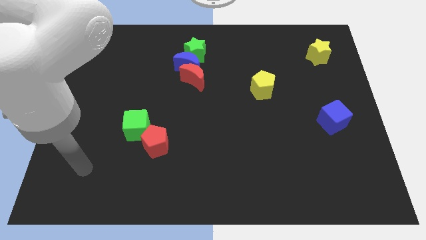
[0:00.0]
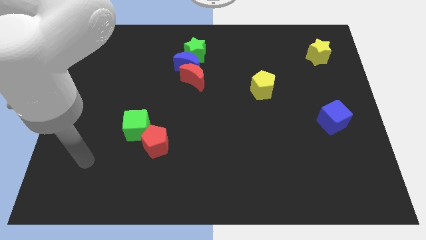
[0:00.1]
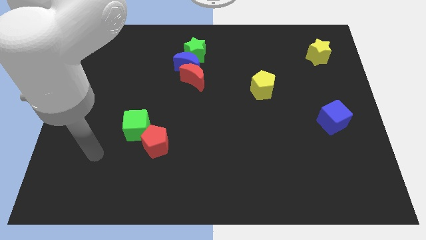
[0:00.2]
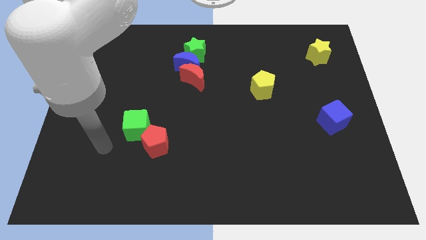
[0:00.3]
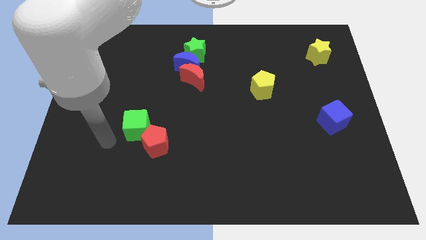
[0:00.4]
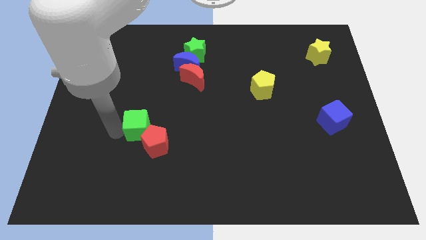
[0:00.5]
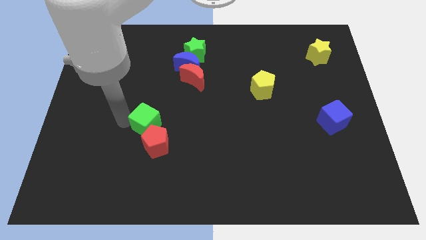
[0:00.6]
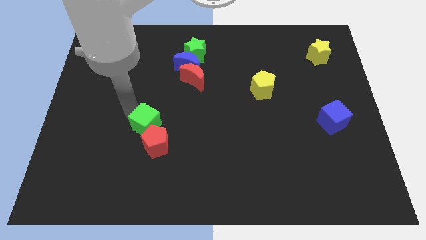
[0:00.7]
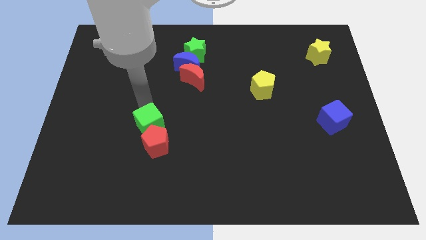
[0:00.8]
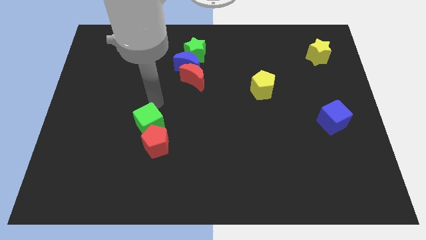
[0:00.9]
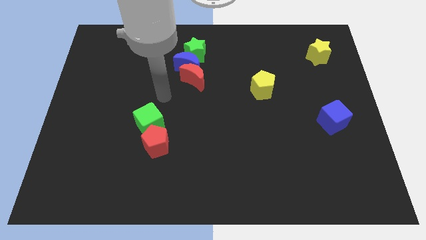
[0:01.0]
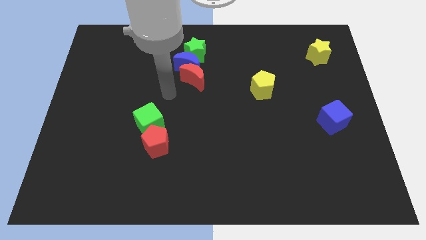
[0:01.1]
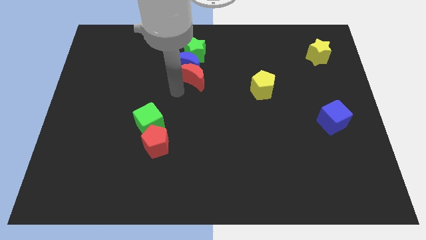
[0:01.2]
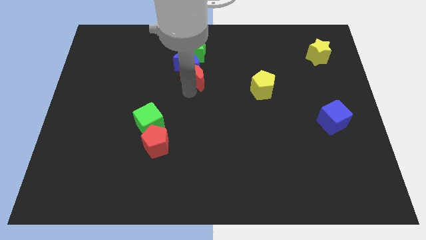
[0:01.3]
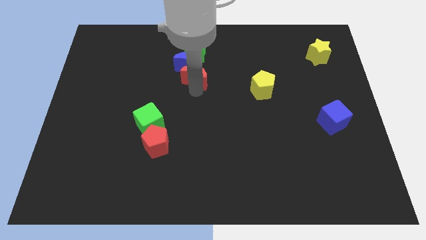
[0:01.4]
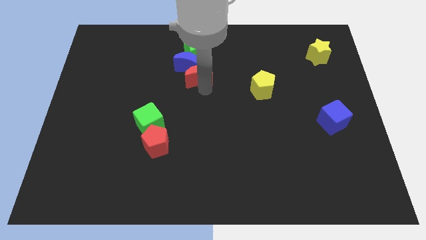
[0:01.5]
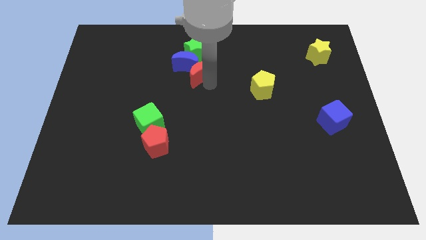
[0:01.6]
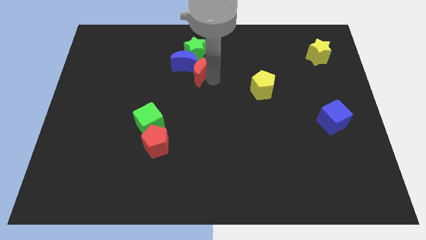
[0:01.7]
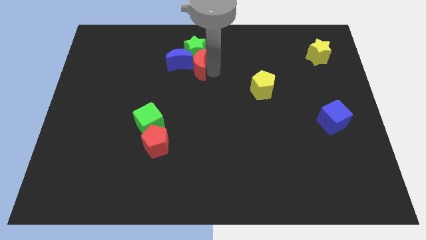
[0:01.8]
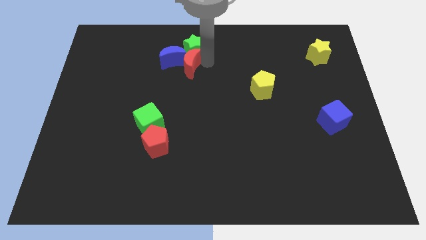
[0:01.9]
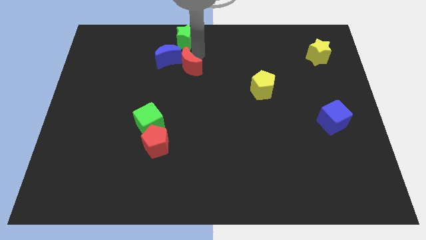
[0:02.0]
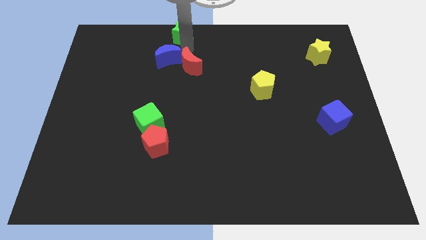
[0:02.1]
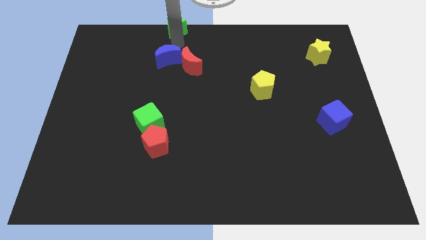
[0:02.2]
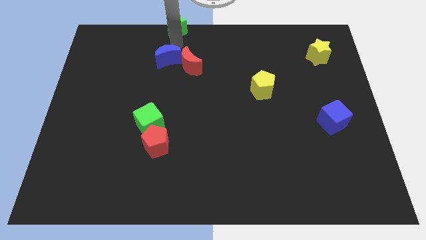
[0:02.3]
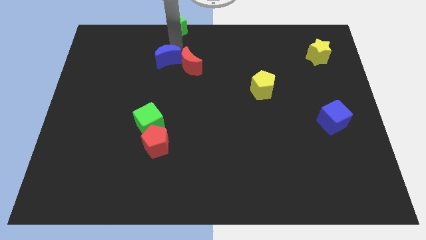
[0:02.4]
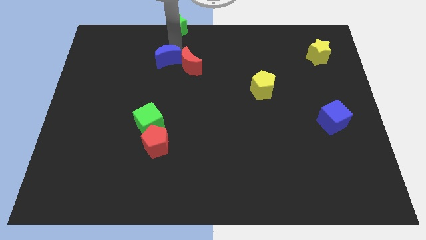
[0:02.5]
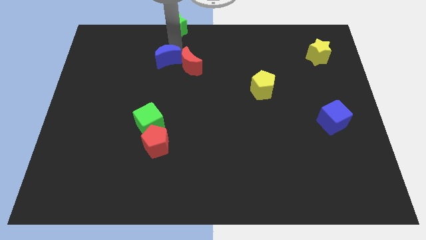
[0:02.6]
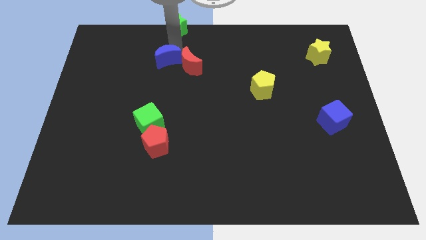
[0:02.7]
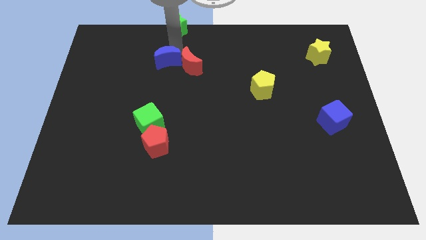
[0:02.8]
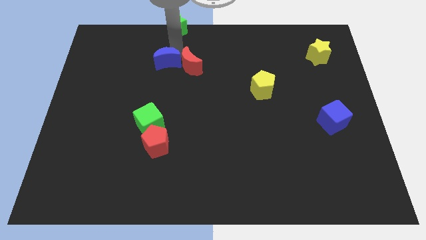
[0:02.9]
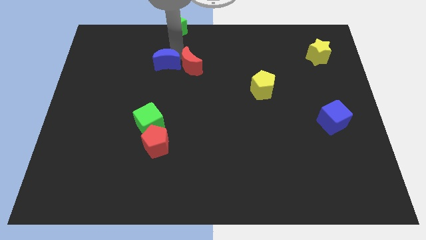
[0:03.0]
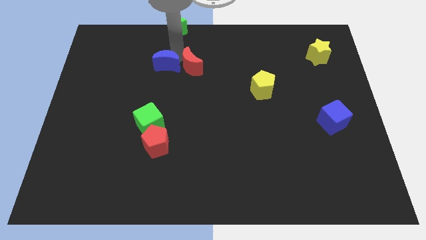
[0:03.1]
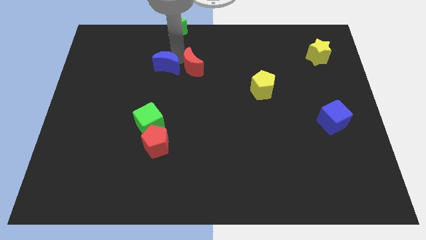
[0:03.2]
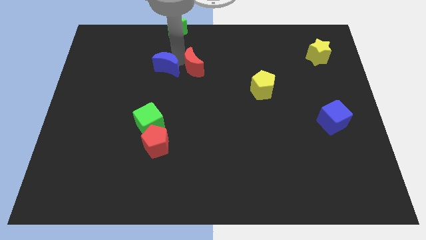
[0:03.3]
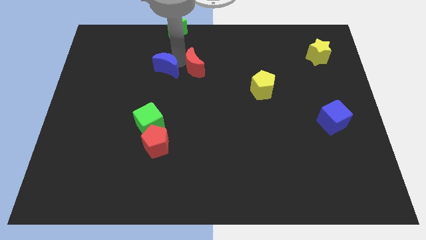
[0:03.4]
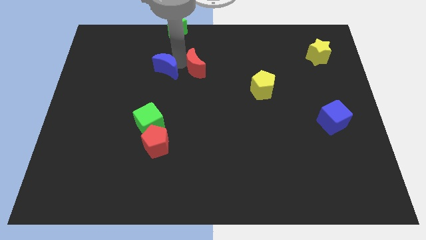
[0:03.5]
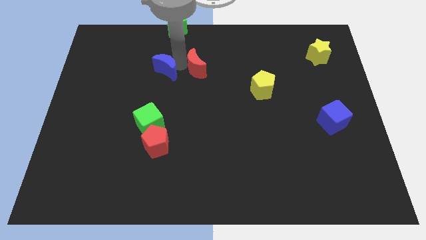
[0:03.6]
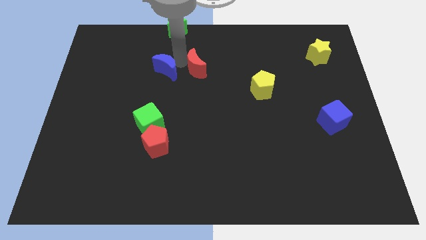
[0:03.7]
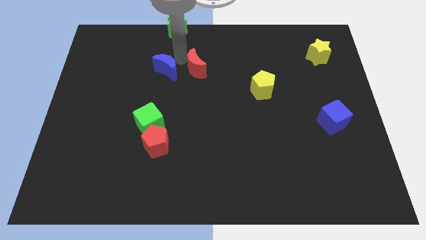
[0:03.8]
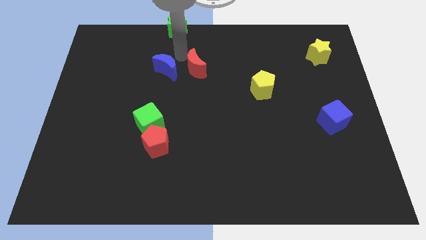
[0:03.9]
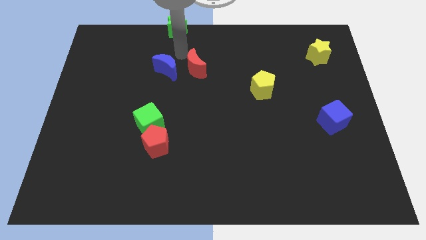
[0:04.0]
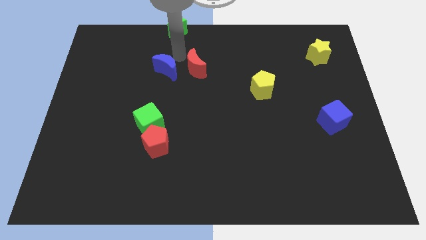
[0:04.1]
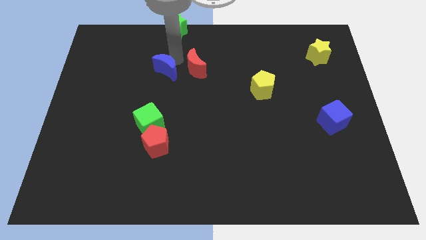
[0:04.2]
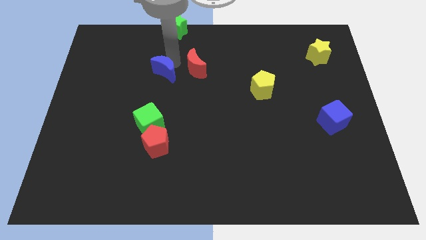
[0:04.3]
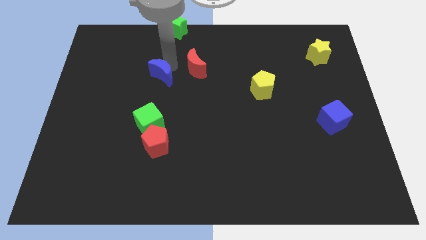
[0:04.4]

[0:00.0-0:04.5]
pull the blue moon apart from the red moon and green star

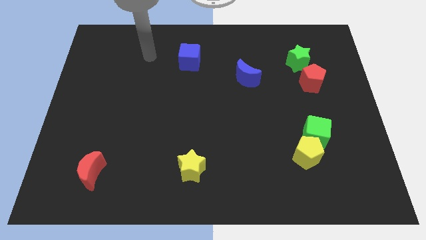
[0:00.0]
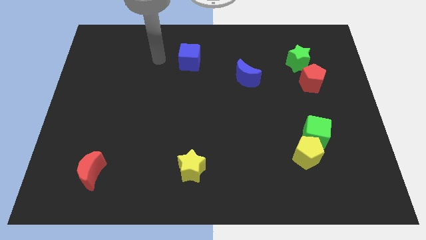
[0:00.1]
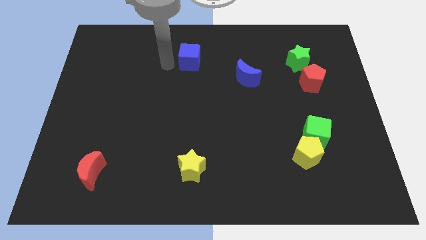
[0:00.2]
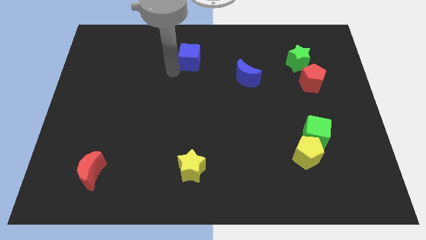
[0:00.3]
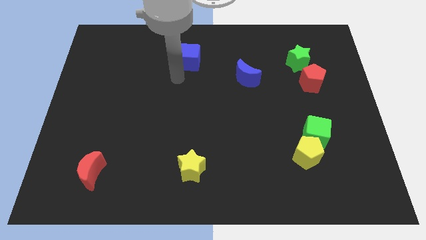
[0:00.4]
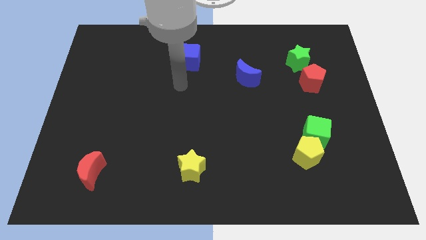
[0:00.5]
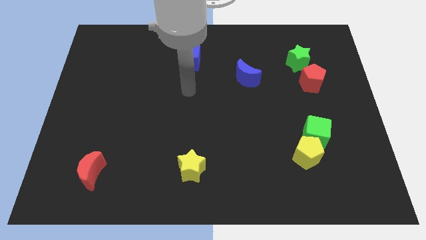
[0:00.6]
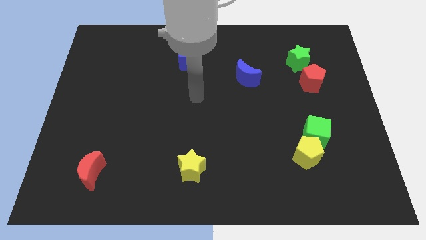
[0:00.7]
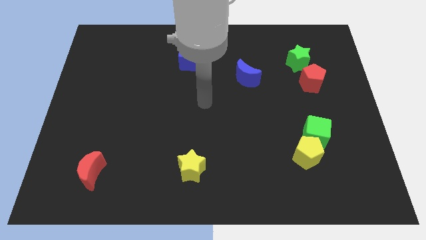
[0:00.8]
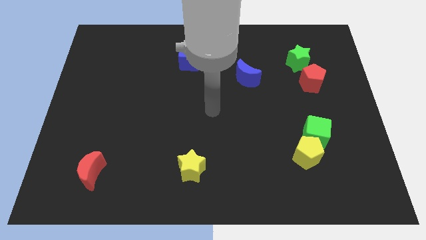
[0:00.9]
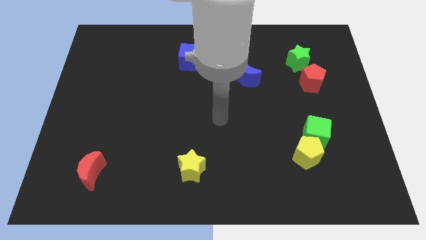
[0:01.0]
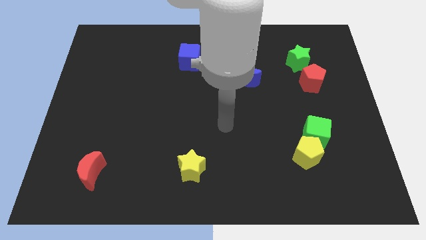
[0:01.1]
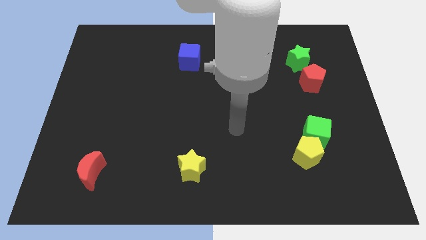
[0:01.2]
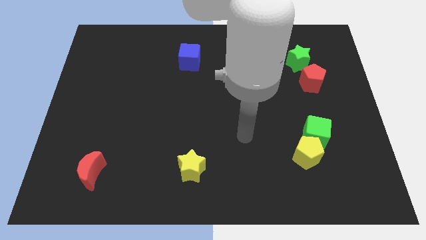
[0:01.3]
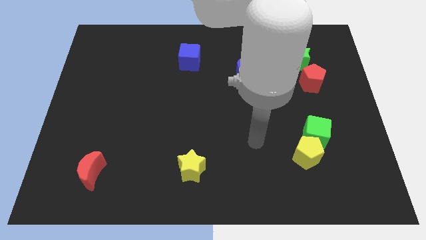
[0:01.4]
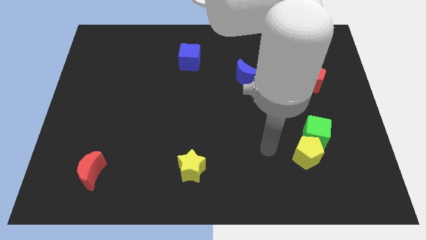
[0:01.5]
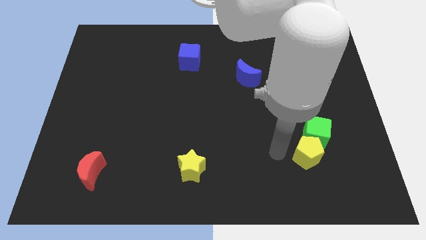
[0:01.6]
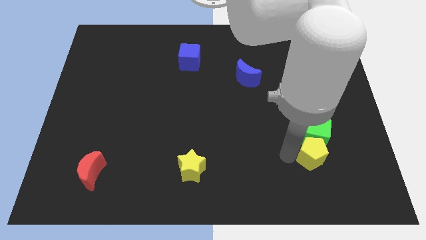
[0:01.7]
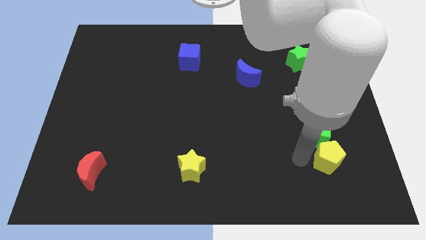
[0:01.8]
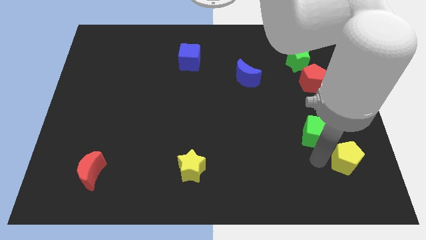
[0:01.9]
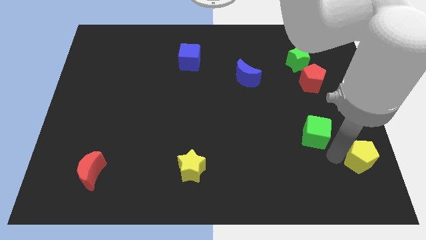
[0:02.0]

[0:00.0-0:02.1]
separate the green cube from the yellow pentagon

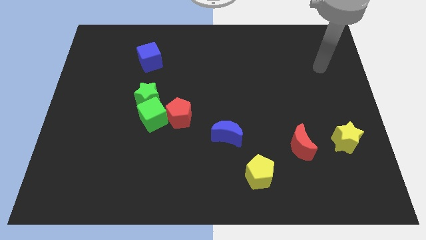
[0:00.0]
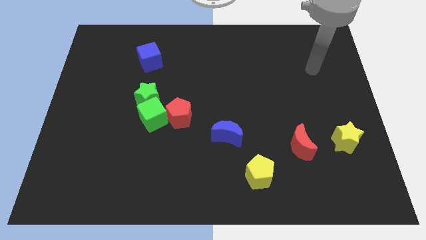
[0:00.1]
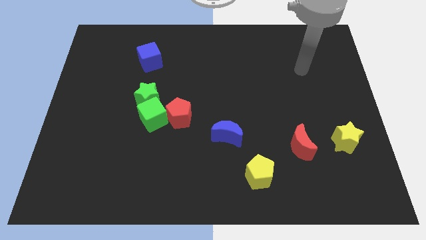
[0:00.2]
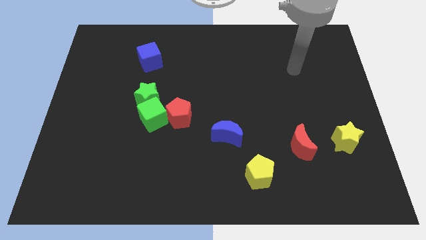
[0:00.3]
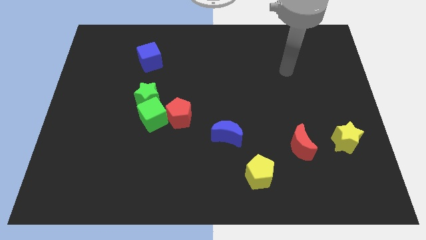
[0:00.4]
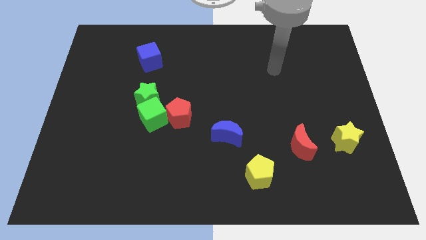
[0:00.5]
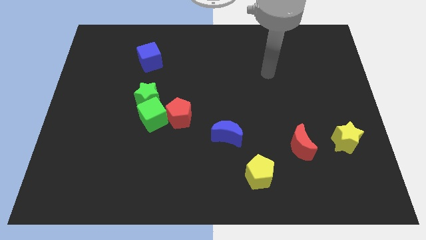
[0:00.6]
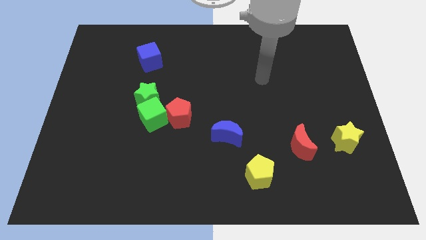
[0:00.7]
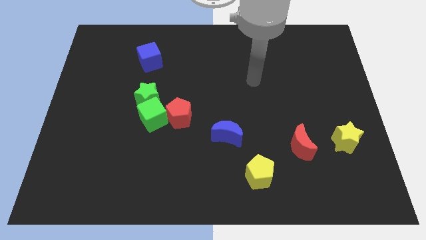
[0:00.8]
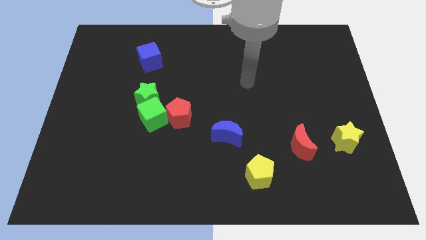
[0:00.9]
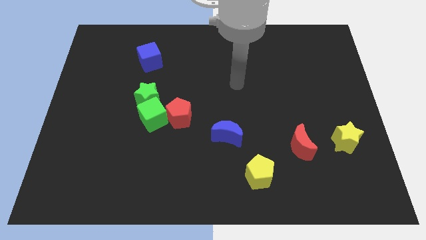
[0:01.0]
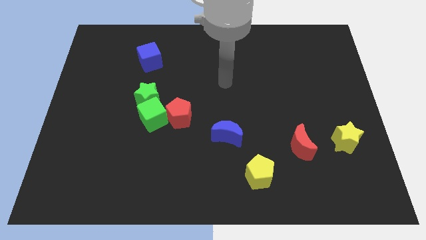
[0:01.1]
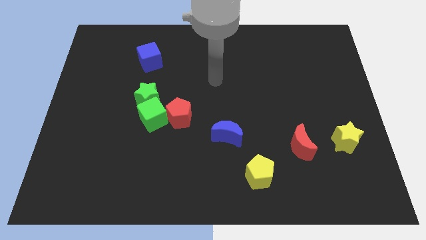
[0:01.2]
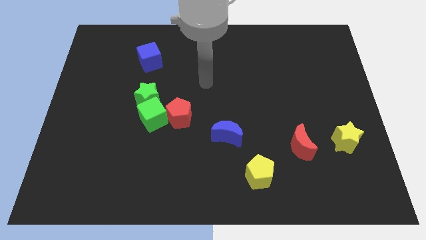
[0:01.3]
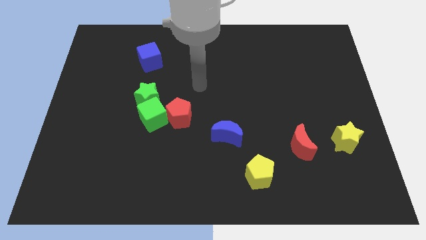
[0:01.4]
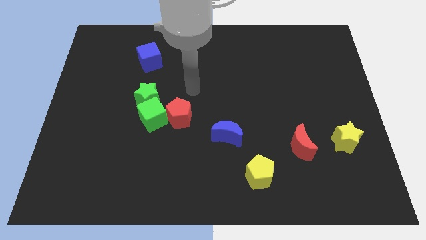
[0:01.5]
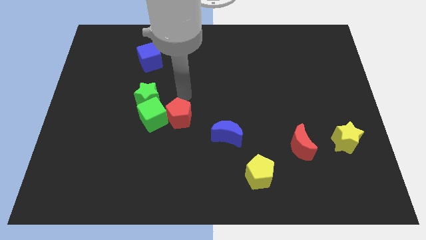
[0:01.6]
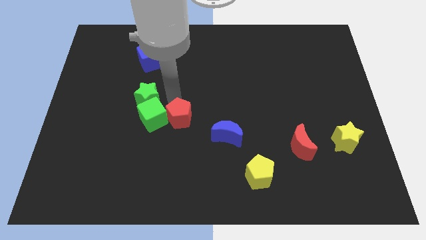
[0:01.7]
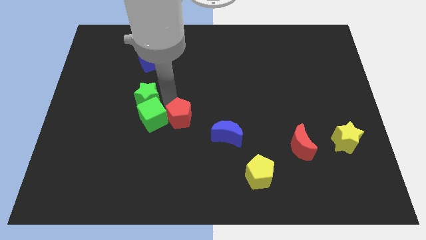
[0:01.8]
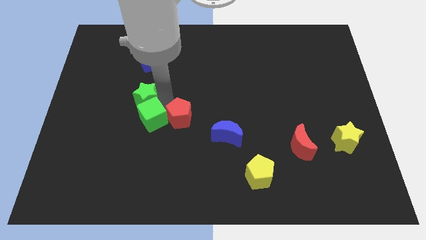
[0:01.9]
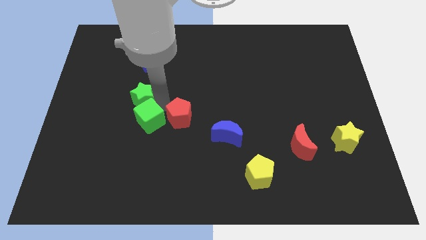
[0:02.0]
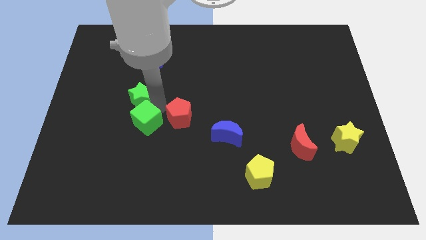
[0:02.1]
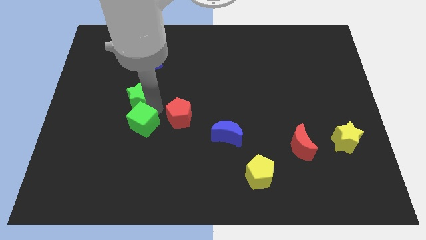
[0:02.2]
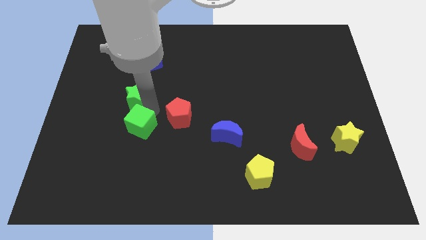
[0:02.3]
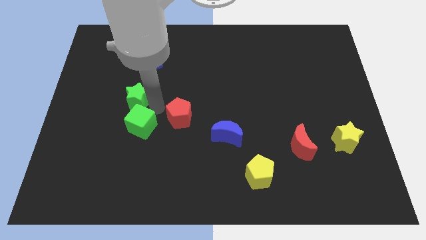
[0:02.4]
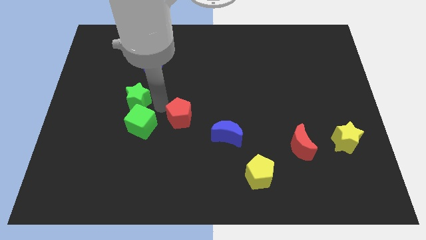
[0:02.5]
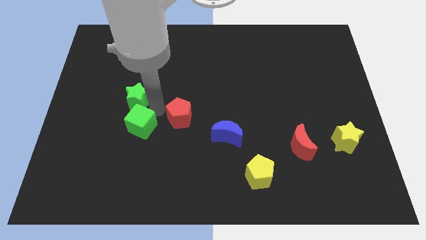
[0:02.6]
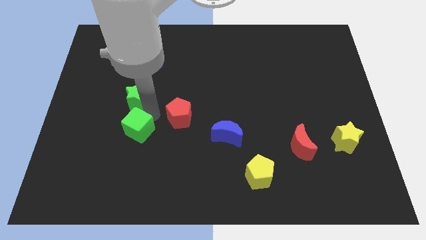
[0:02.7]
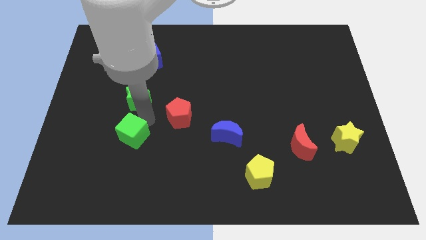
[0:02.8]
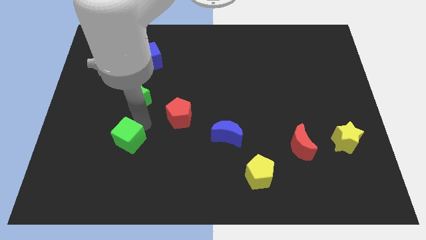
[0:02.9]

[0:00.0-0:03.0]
pull the green cube apart from the green star and red pentagon
